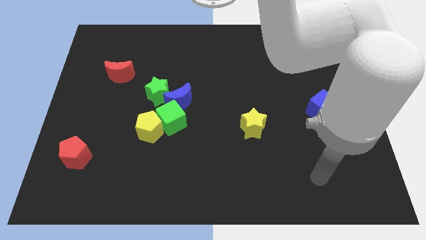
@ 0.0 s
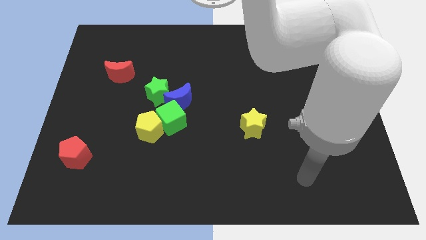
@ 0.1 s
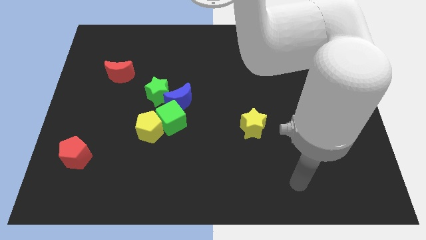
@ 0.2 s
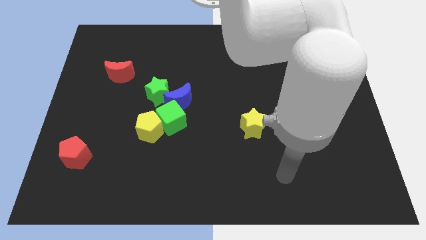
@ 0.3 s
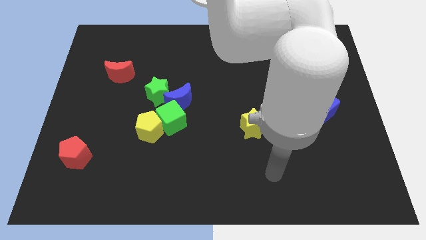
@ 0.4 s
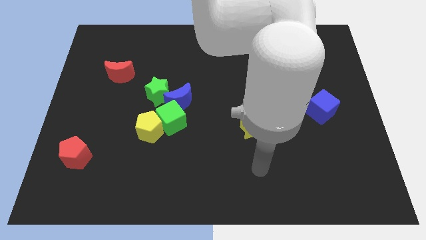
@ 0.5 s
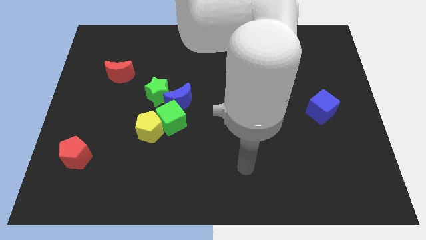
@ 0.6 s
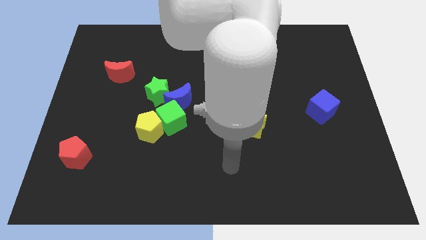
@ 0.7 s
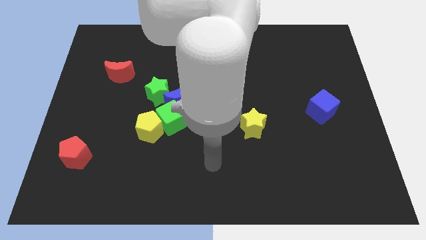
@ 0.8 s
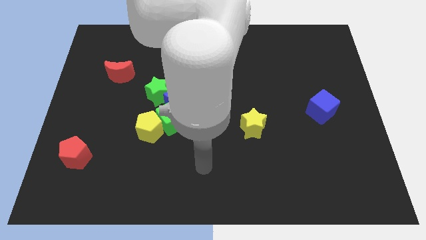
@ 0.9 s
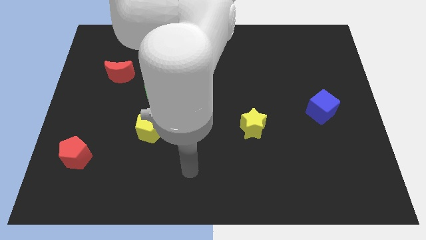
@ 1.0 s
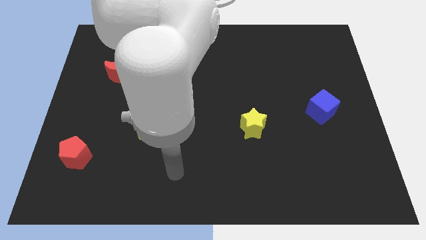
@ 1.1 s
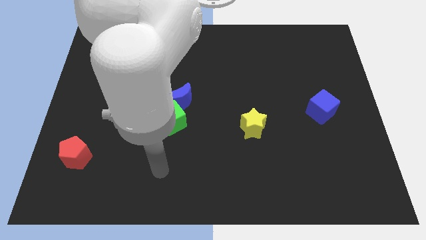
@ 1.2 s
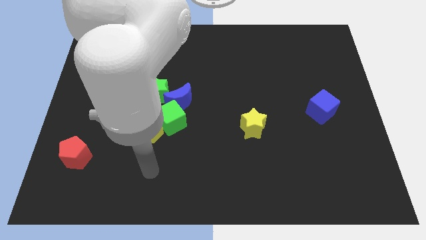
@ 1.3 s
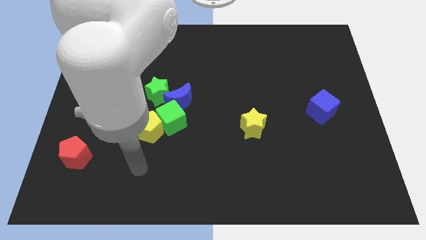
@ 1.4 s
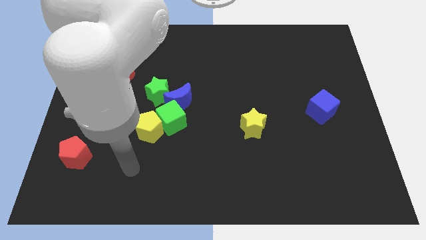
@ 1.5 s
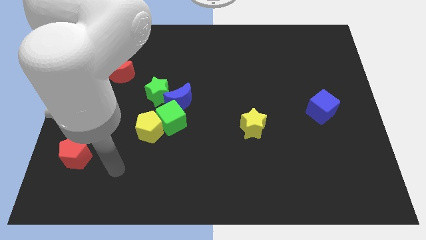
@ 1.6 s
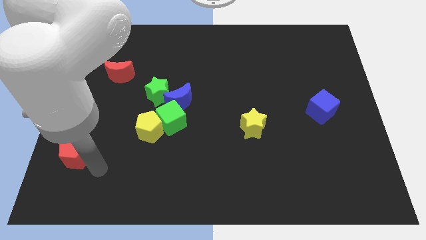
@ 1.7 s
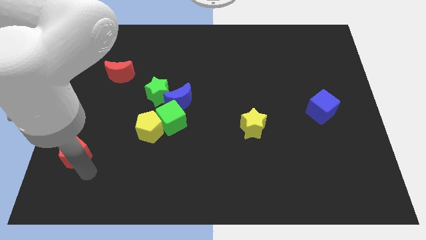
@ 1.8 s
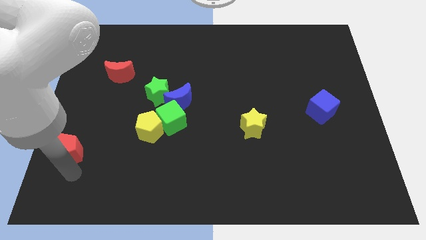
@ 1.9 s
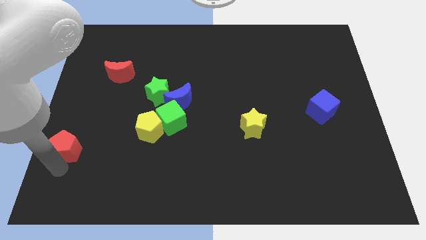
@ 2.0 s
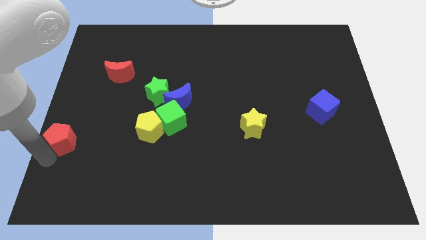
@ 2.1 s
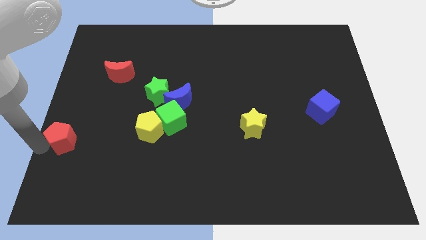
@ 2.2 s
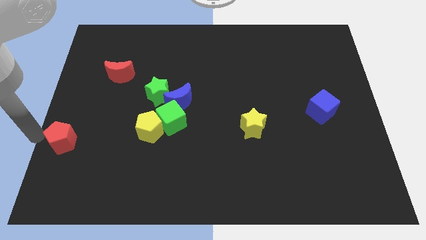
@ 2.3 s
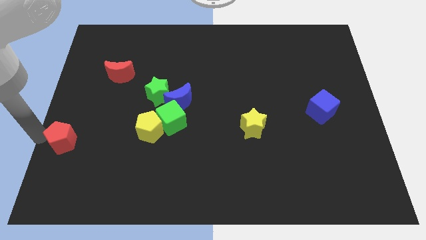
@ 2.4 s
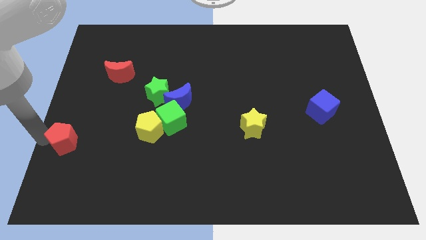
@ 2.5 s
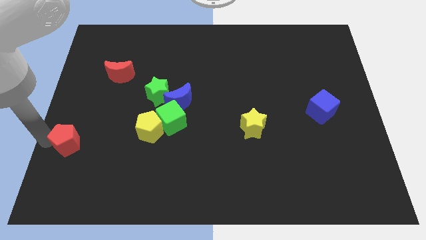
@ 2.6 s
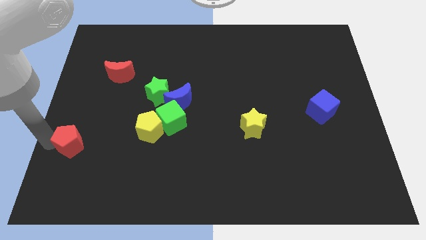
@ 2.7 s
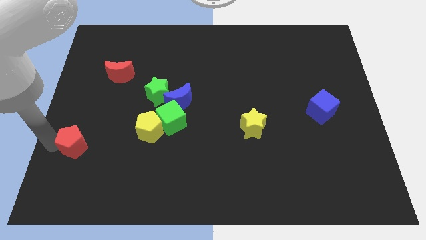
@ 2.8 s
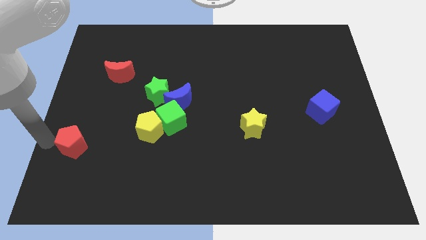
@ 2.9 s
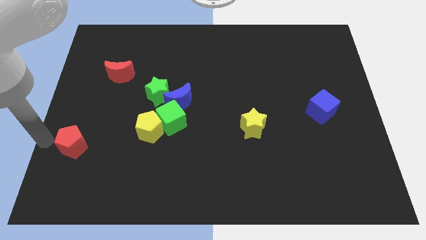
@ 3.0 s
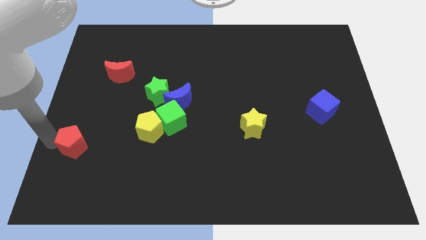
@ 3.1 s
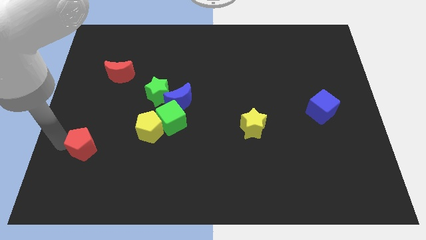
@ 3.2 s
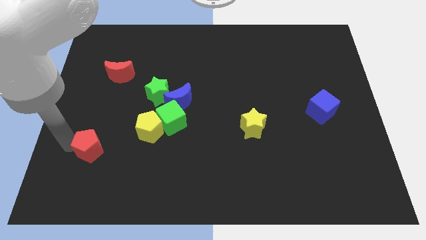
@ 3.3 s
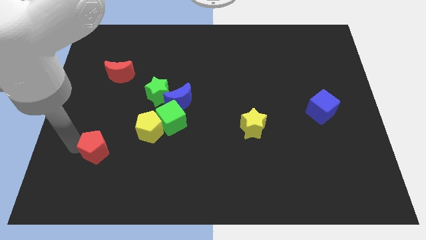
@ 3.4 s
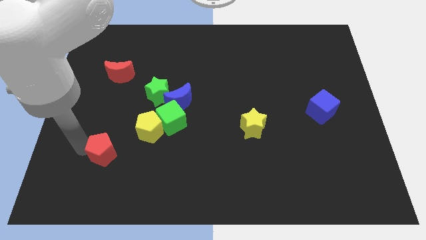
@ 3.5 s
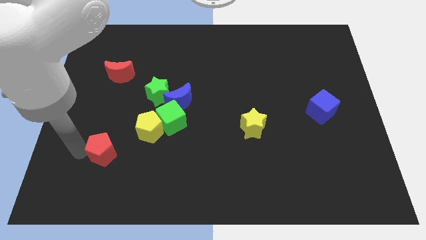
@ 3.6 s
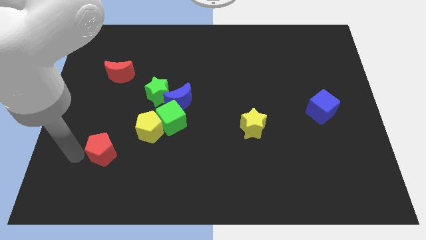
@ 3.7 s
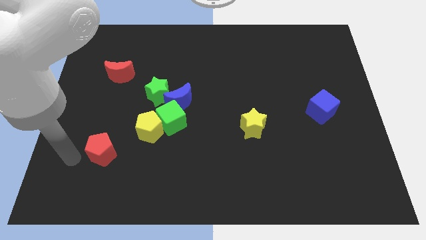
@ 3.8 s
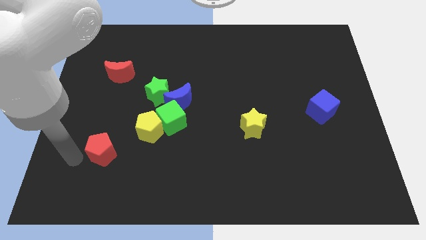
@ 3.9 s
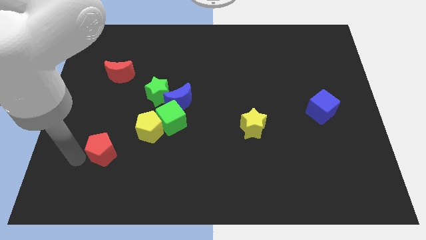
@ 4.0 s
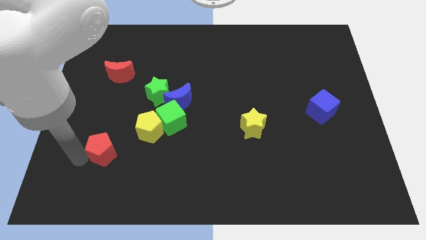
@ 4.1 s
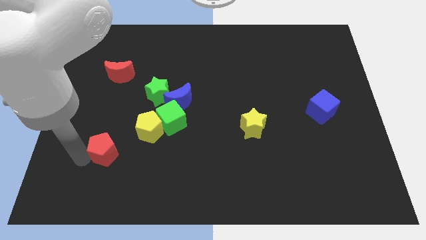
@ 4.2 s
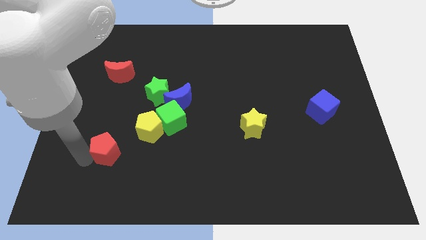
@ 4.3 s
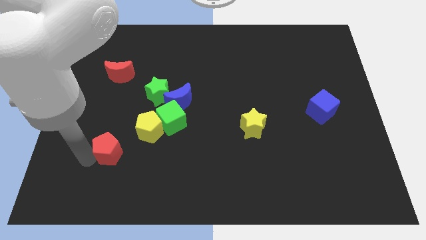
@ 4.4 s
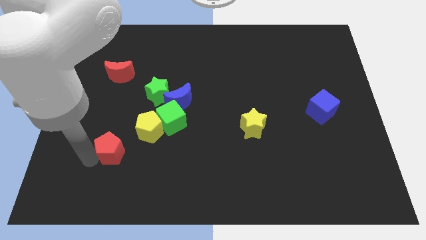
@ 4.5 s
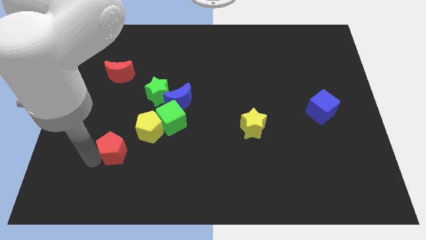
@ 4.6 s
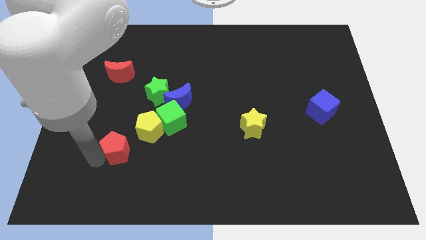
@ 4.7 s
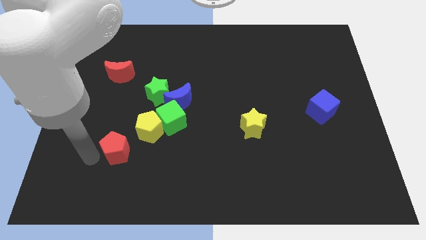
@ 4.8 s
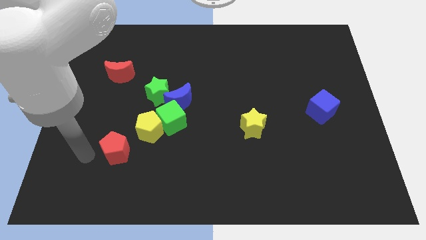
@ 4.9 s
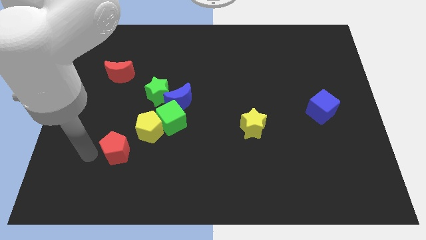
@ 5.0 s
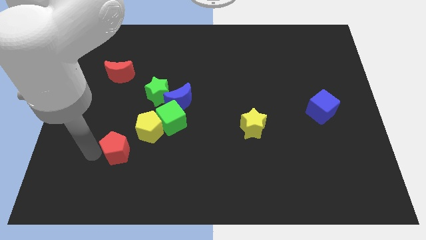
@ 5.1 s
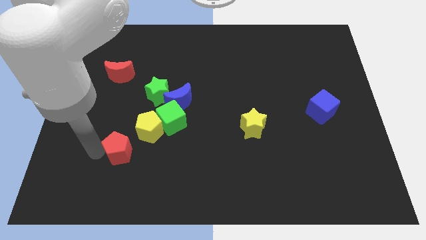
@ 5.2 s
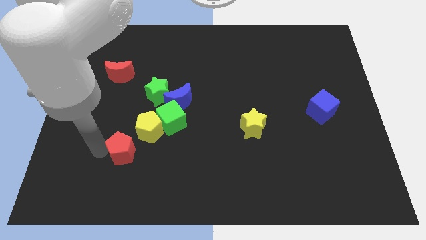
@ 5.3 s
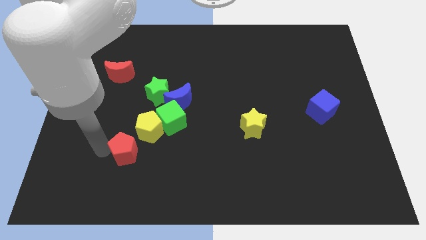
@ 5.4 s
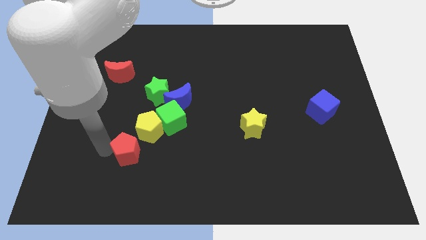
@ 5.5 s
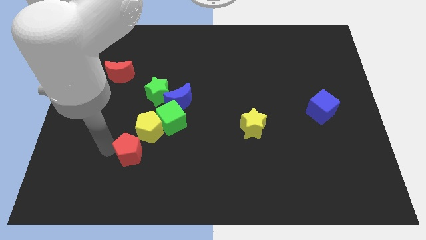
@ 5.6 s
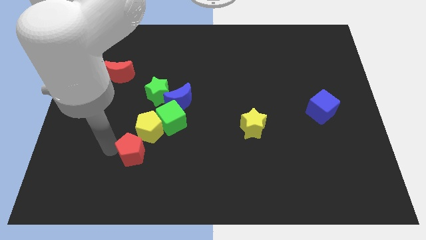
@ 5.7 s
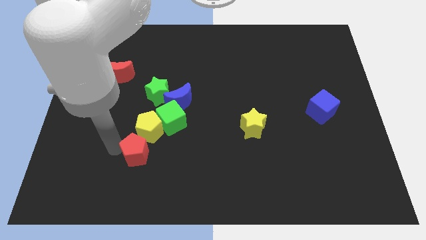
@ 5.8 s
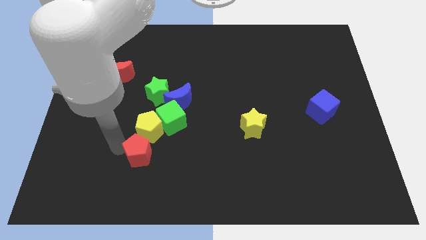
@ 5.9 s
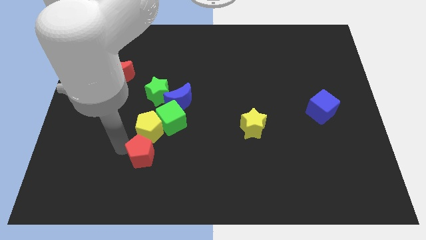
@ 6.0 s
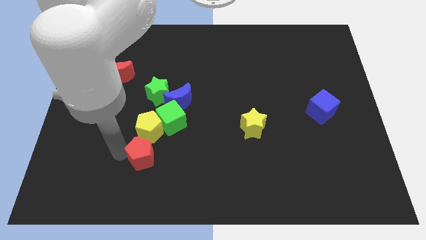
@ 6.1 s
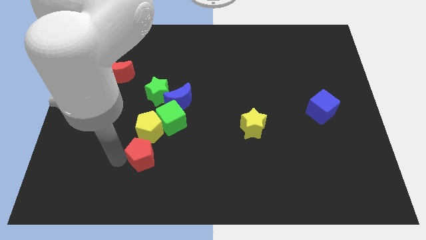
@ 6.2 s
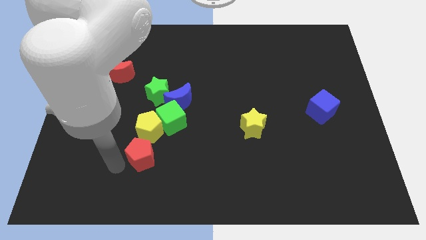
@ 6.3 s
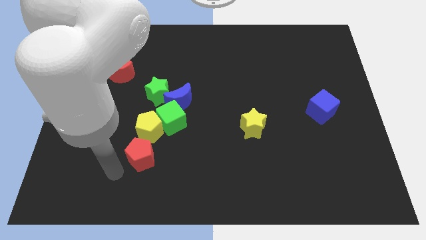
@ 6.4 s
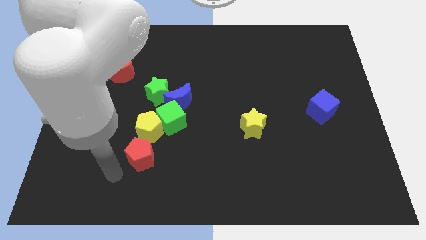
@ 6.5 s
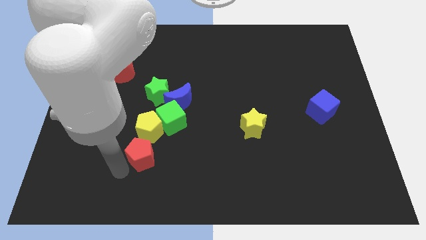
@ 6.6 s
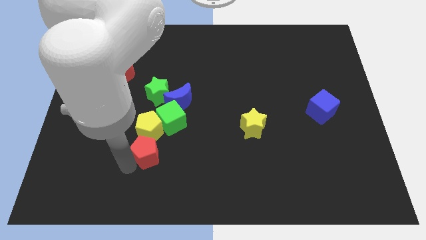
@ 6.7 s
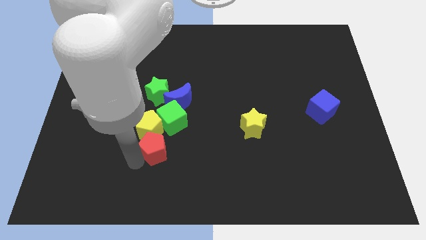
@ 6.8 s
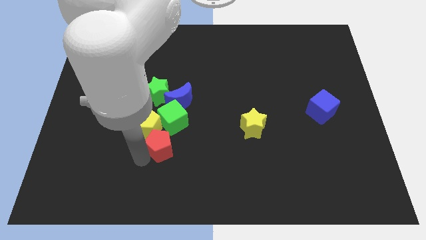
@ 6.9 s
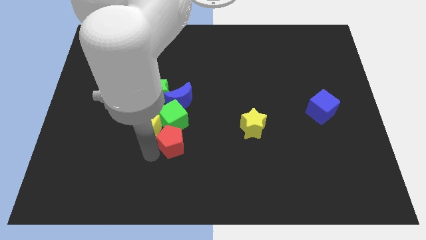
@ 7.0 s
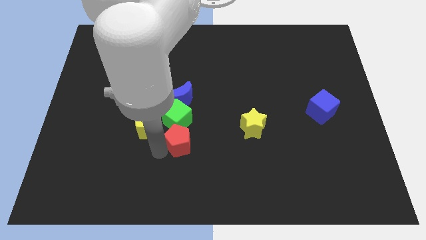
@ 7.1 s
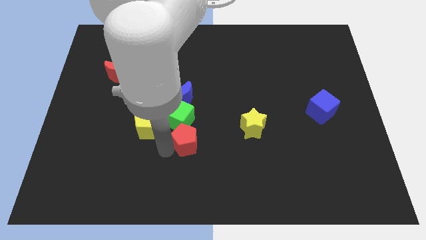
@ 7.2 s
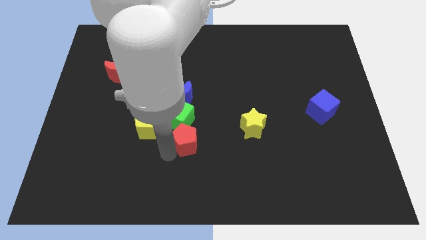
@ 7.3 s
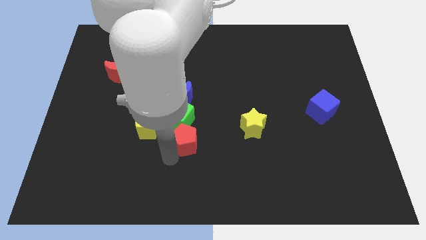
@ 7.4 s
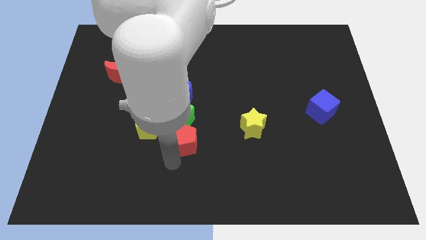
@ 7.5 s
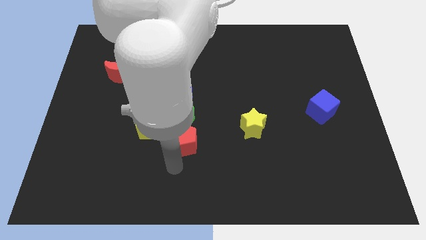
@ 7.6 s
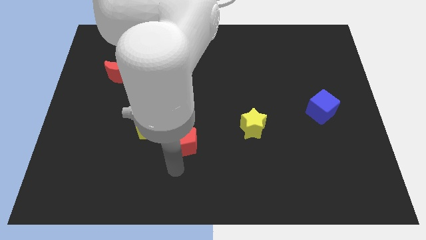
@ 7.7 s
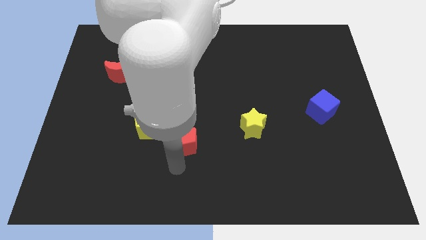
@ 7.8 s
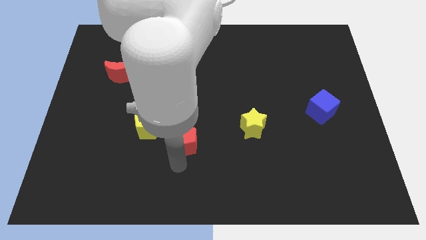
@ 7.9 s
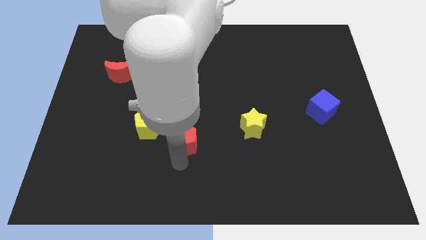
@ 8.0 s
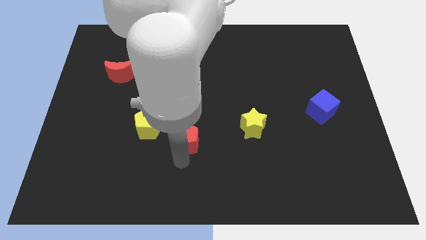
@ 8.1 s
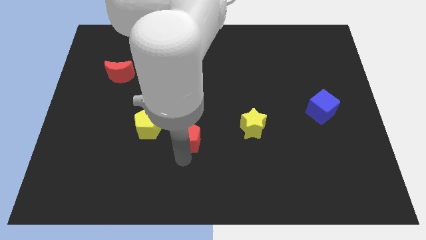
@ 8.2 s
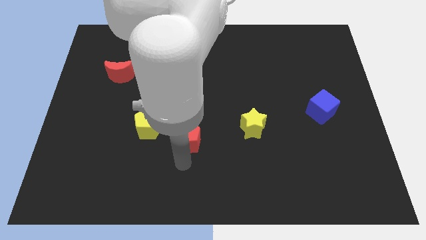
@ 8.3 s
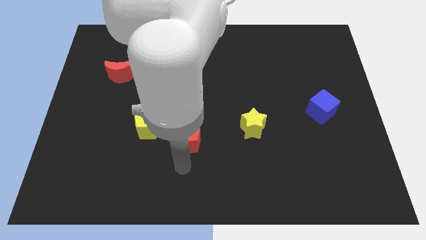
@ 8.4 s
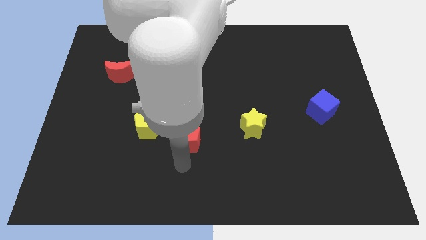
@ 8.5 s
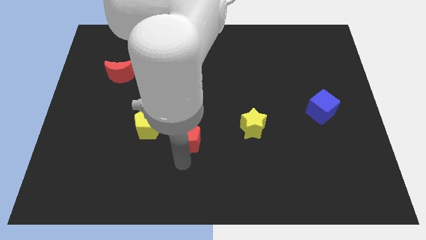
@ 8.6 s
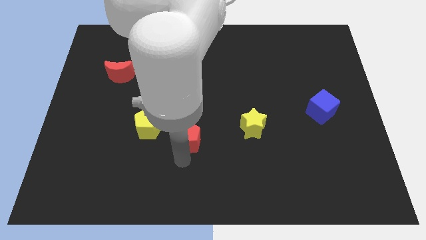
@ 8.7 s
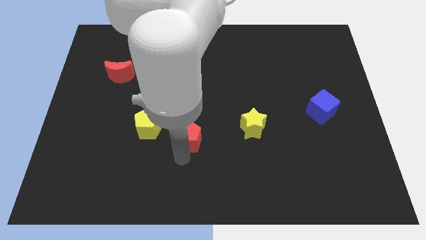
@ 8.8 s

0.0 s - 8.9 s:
slide the red pentagon next to the green cube
